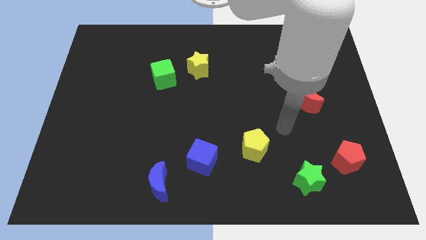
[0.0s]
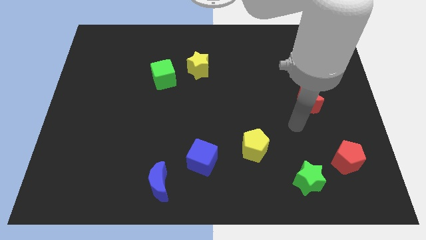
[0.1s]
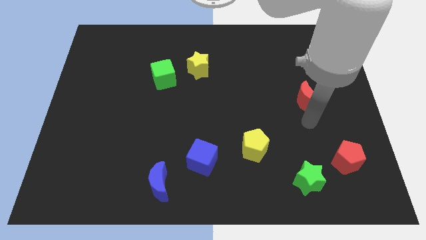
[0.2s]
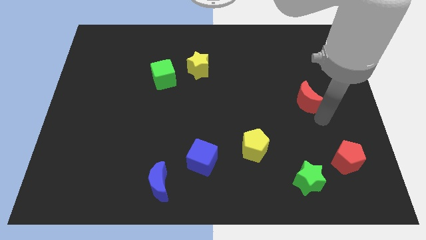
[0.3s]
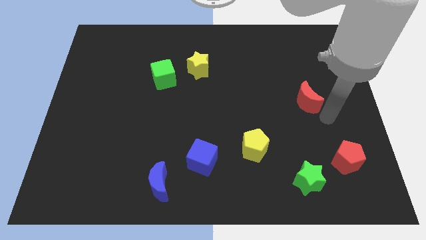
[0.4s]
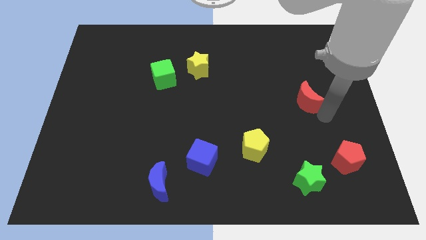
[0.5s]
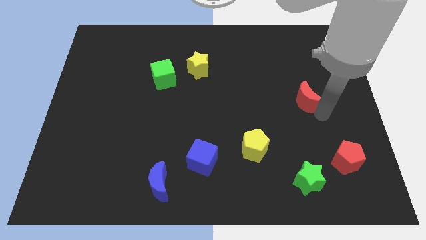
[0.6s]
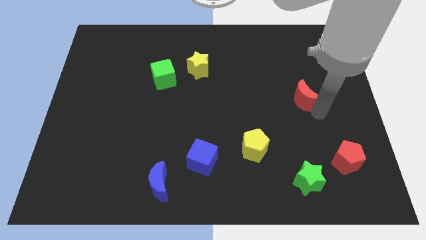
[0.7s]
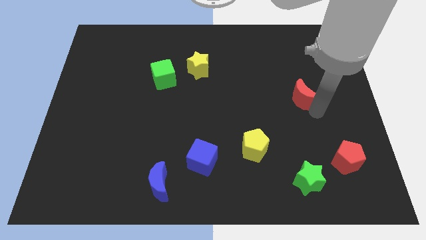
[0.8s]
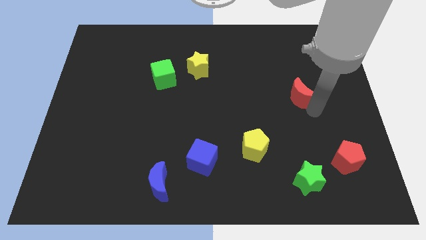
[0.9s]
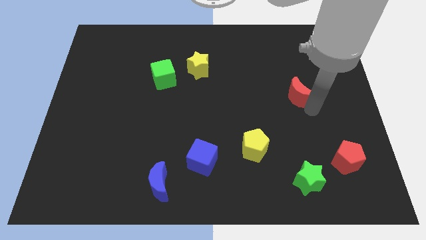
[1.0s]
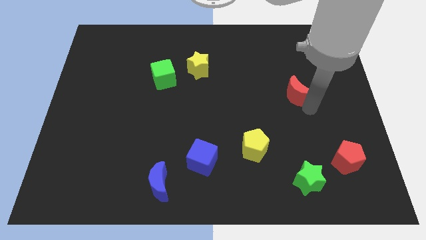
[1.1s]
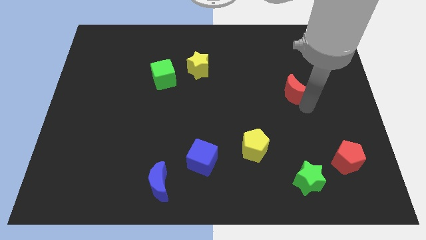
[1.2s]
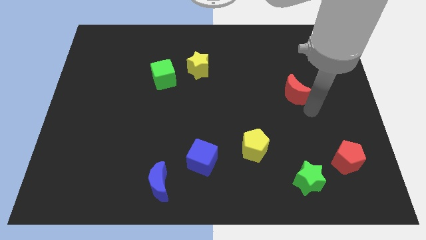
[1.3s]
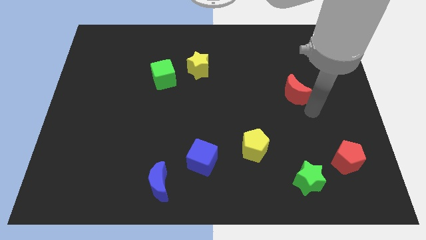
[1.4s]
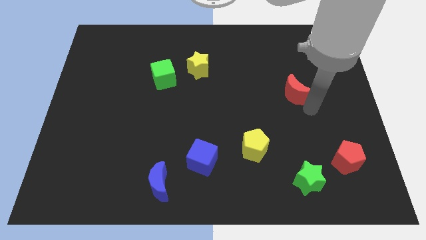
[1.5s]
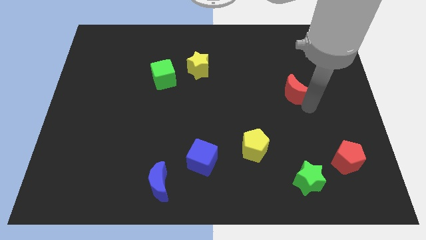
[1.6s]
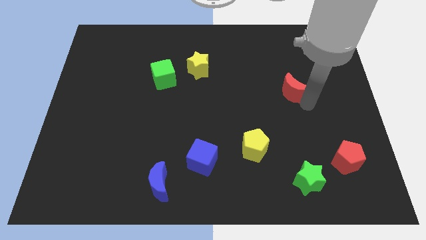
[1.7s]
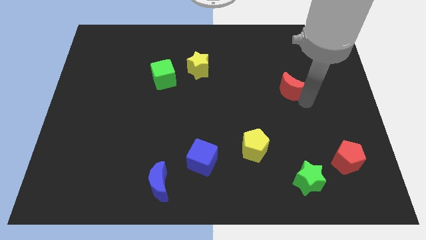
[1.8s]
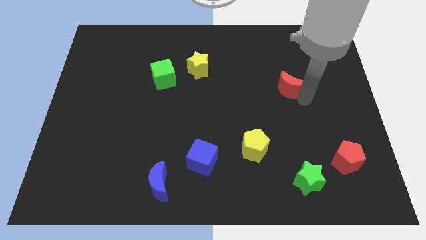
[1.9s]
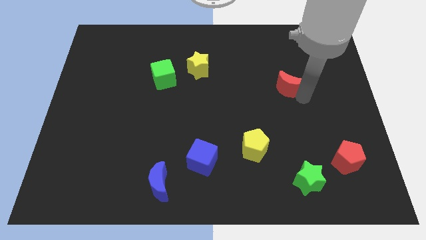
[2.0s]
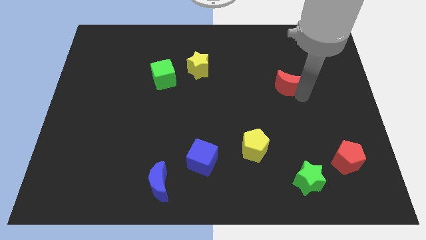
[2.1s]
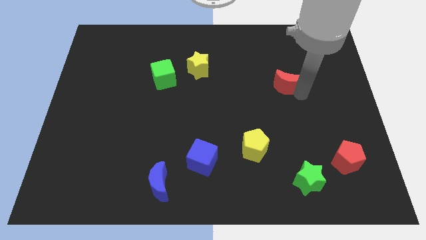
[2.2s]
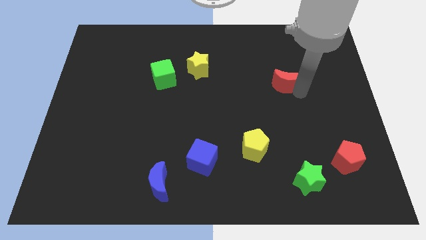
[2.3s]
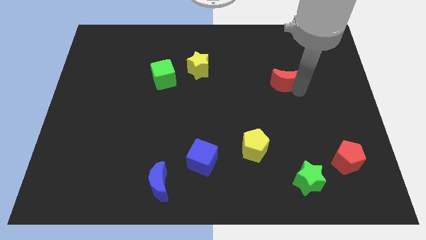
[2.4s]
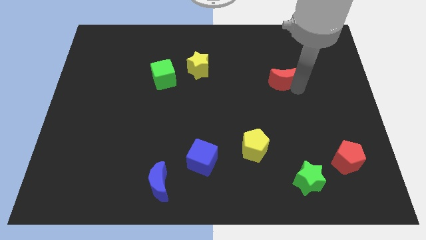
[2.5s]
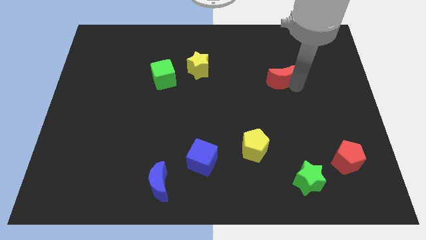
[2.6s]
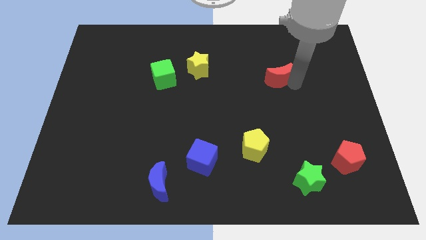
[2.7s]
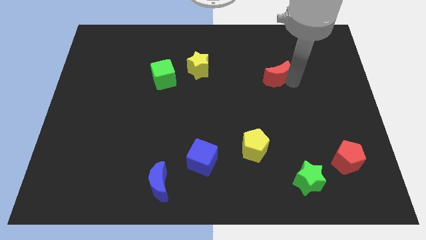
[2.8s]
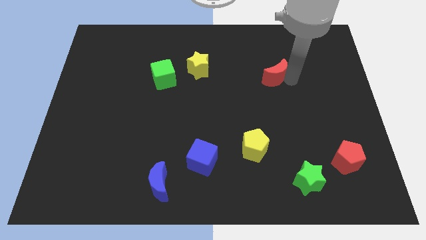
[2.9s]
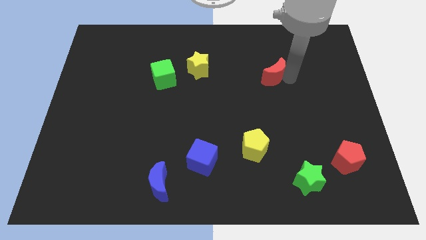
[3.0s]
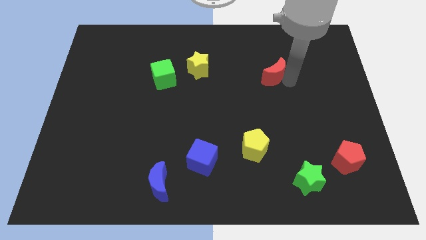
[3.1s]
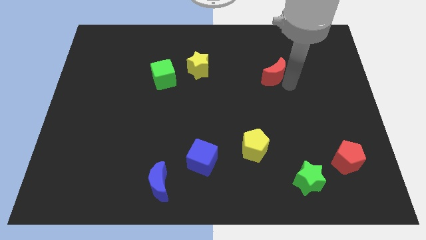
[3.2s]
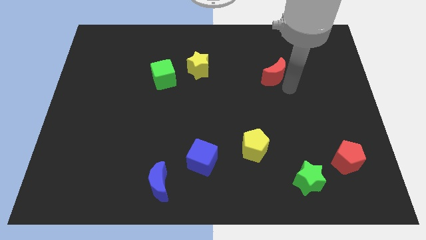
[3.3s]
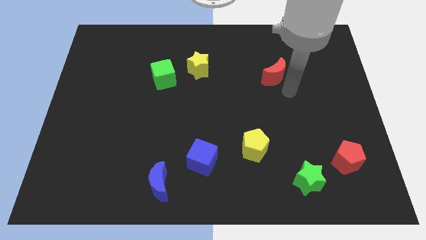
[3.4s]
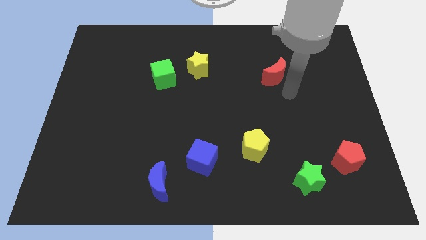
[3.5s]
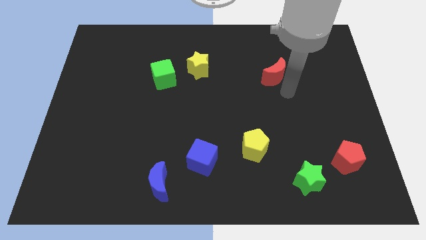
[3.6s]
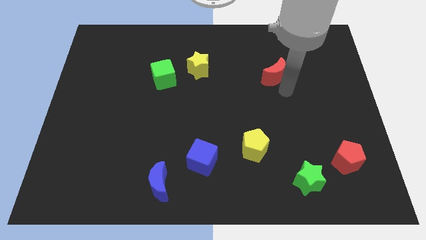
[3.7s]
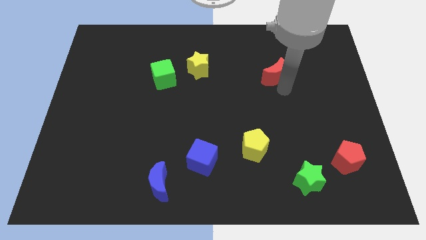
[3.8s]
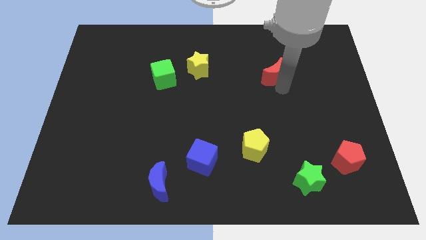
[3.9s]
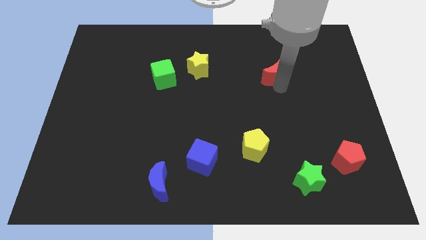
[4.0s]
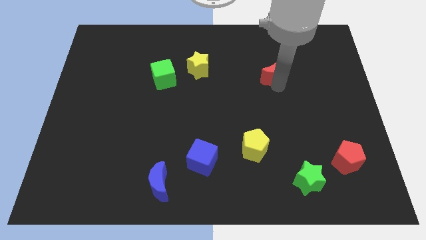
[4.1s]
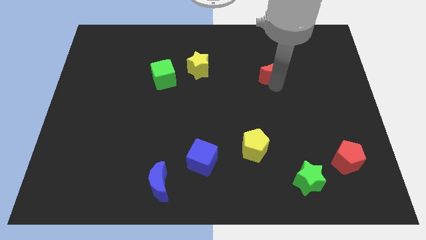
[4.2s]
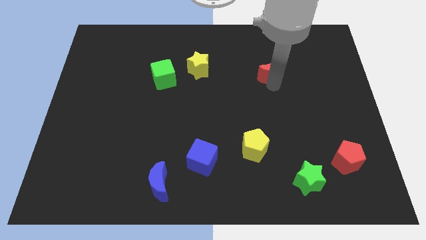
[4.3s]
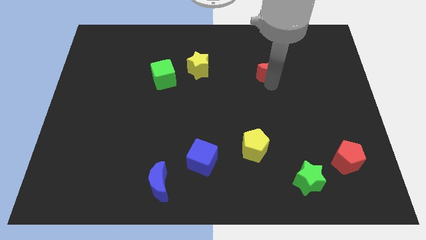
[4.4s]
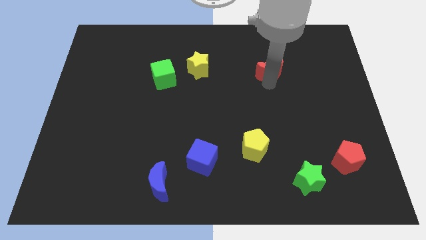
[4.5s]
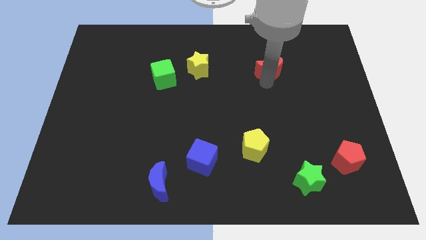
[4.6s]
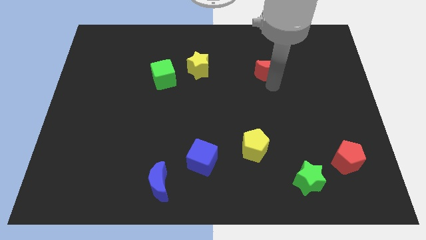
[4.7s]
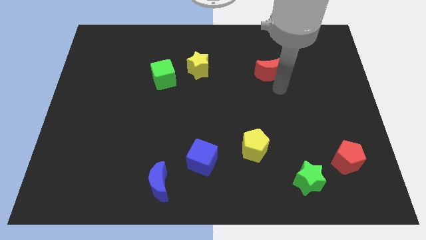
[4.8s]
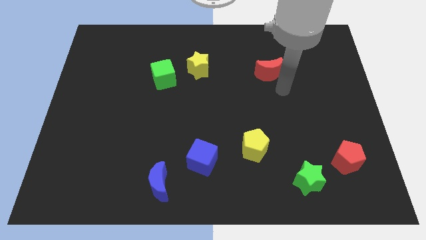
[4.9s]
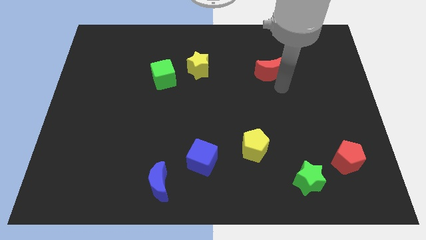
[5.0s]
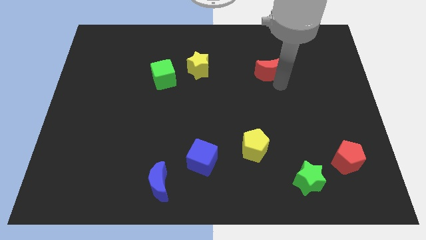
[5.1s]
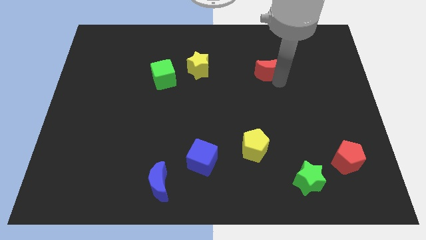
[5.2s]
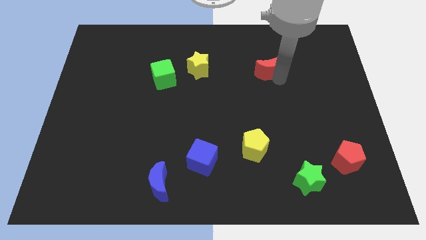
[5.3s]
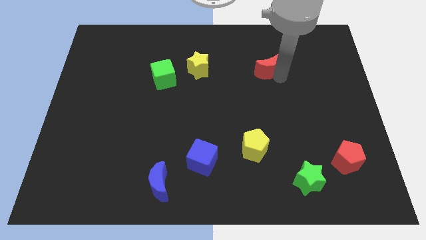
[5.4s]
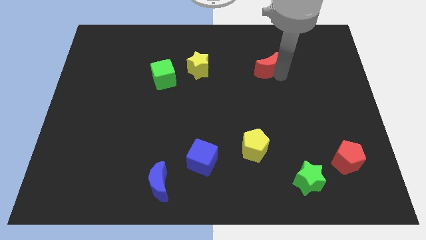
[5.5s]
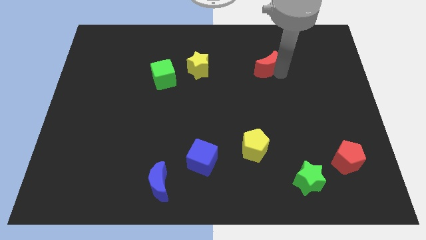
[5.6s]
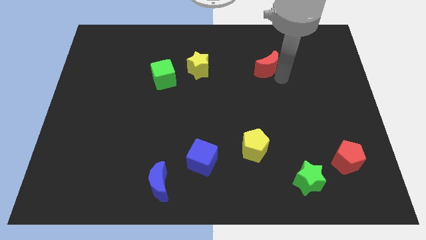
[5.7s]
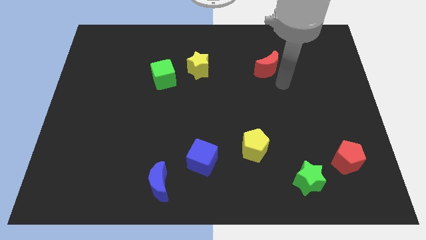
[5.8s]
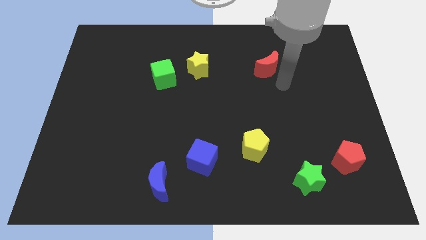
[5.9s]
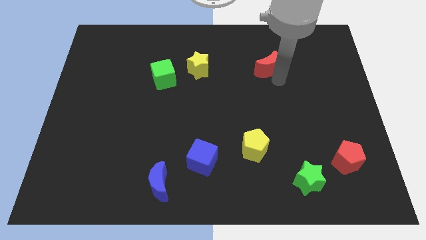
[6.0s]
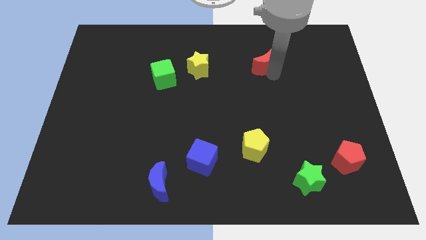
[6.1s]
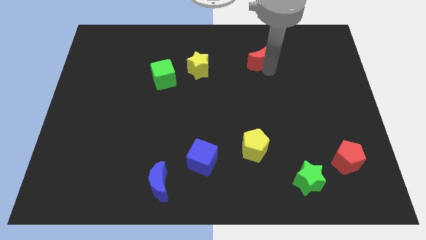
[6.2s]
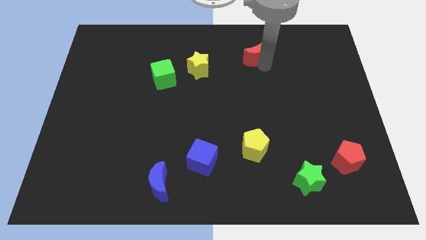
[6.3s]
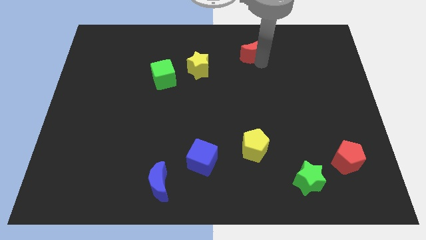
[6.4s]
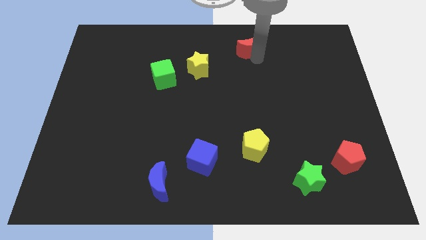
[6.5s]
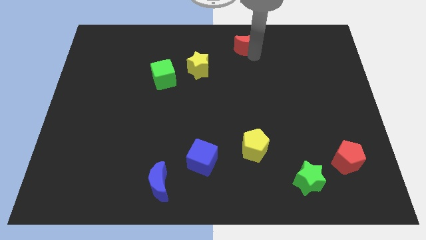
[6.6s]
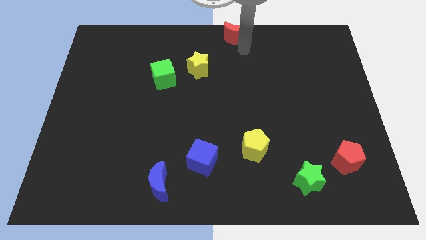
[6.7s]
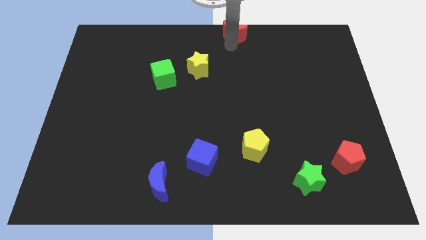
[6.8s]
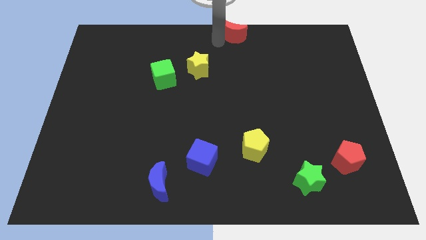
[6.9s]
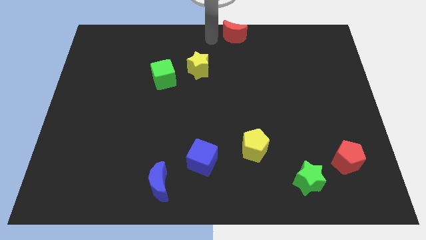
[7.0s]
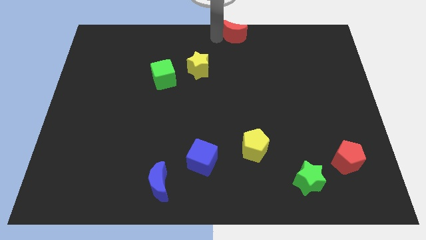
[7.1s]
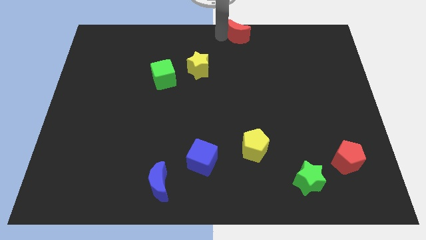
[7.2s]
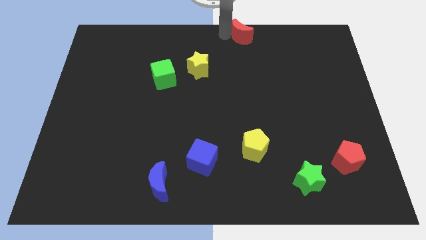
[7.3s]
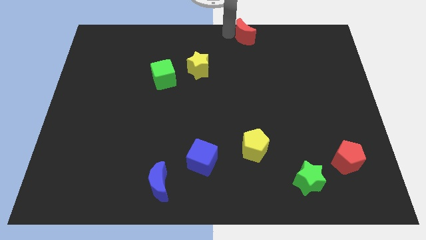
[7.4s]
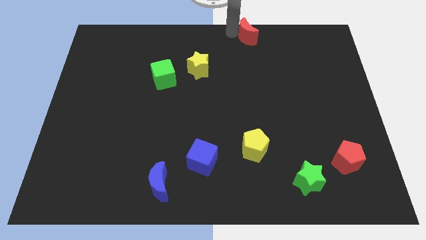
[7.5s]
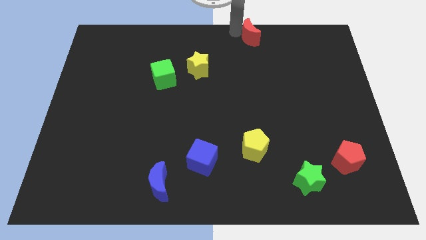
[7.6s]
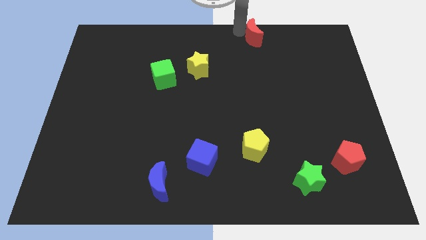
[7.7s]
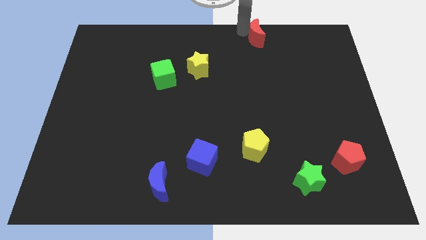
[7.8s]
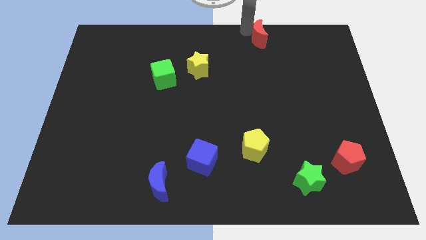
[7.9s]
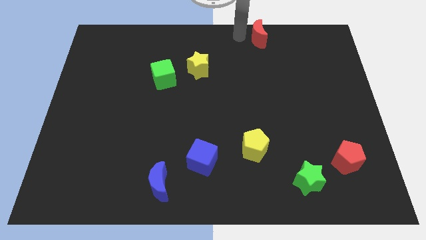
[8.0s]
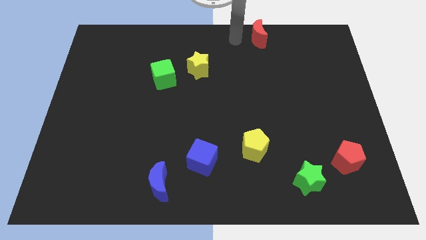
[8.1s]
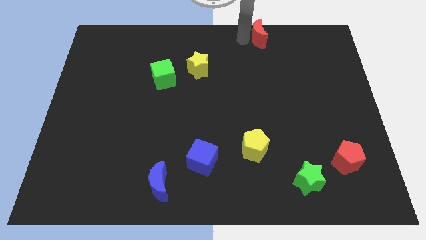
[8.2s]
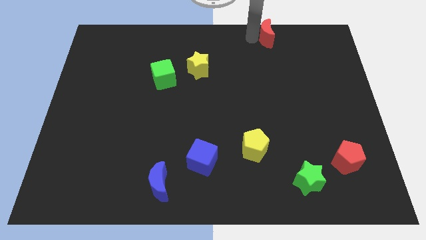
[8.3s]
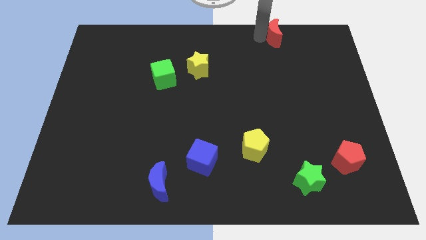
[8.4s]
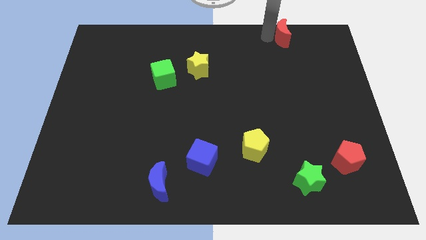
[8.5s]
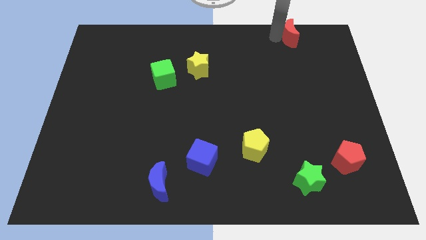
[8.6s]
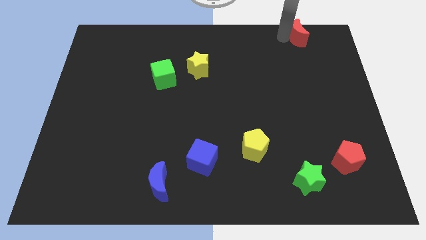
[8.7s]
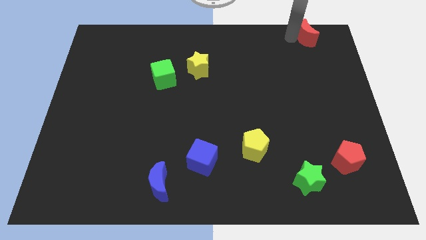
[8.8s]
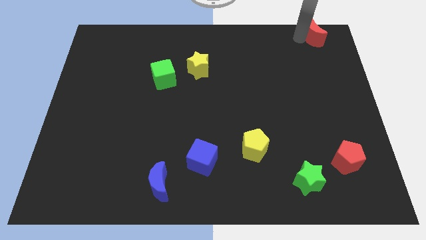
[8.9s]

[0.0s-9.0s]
slide the red moon to the top right
